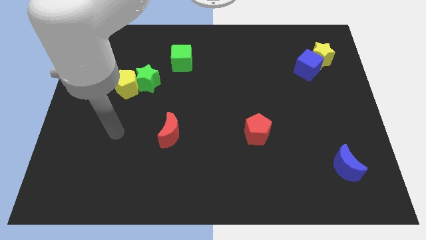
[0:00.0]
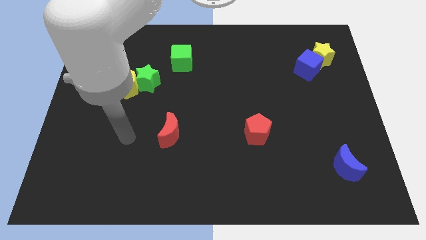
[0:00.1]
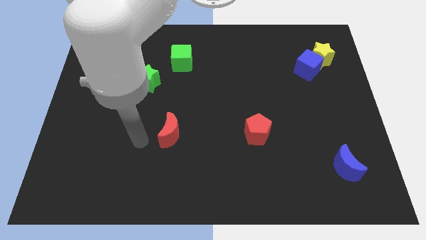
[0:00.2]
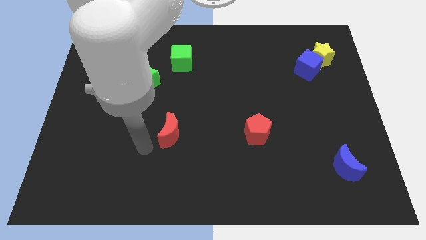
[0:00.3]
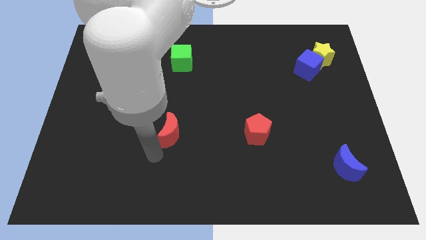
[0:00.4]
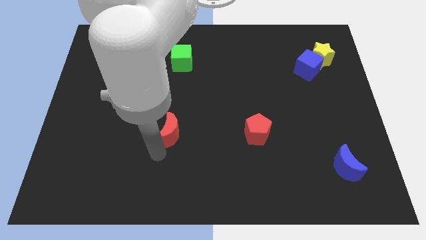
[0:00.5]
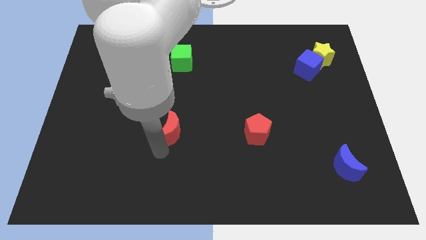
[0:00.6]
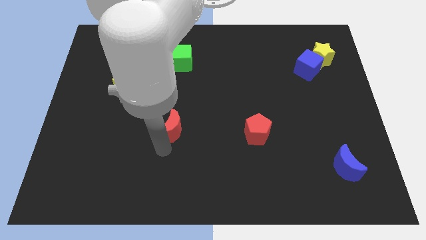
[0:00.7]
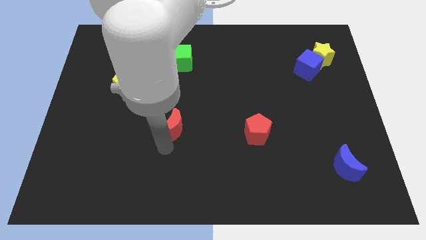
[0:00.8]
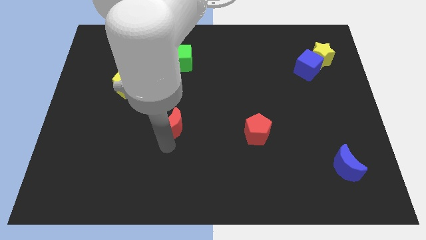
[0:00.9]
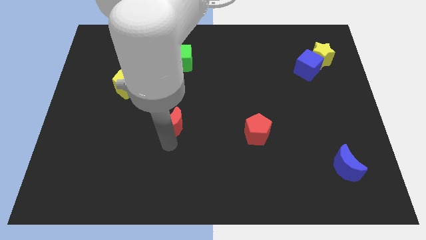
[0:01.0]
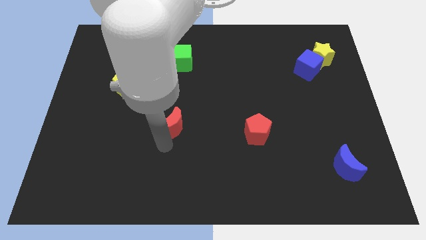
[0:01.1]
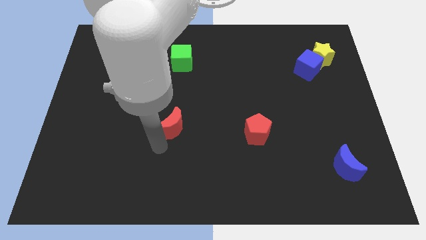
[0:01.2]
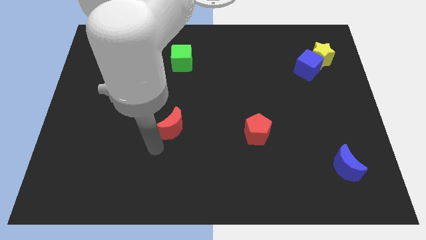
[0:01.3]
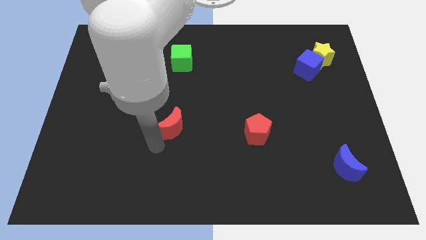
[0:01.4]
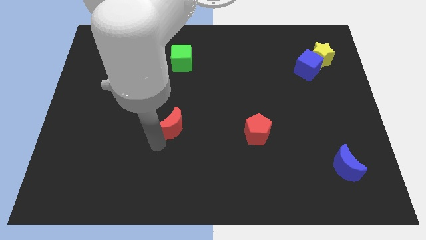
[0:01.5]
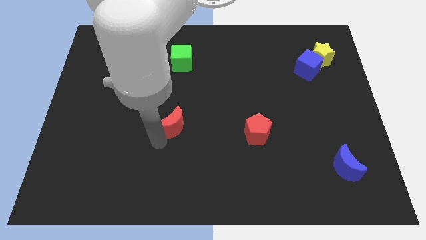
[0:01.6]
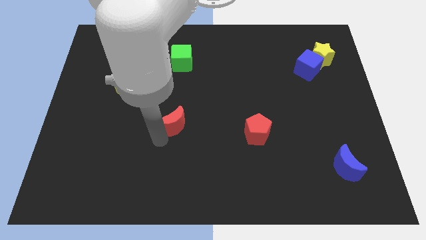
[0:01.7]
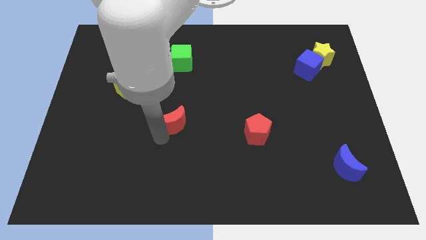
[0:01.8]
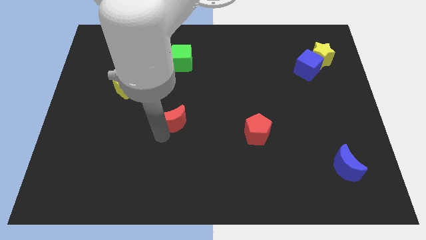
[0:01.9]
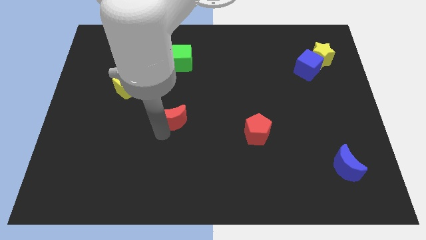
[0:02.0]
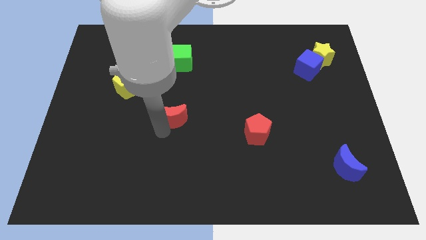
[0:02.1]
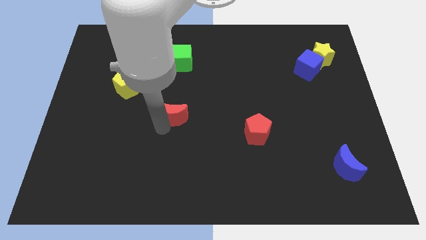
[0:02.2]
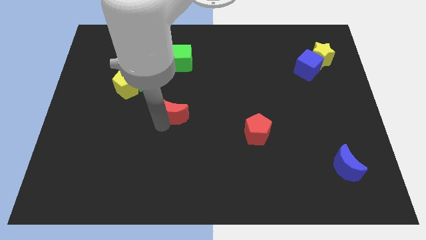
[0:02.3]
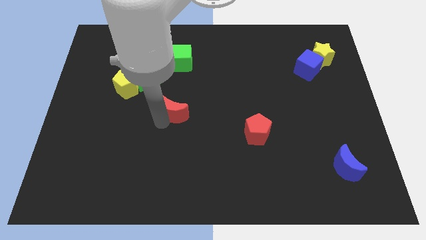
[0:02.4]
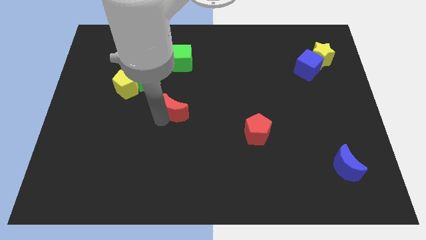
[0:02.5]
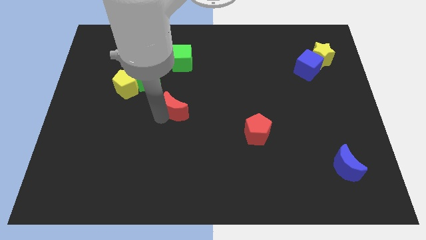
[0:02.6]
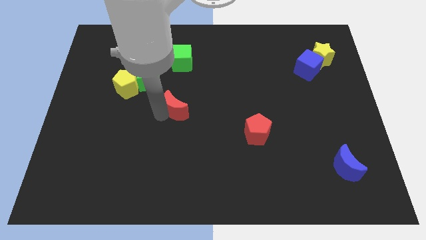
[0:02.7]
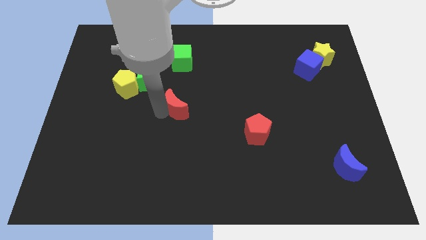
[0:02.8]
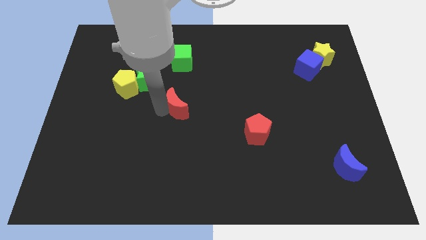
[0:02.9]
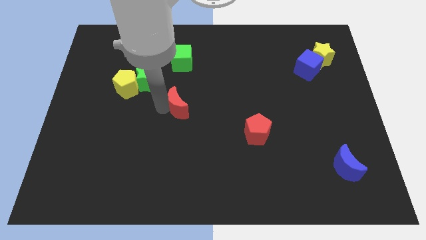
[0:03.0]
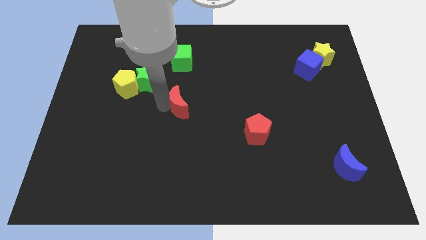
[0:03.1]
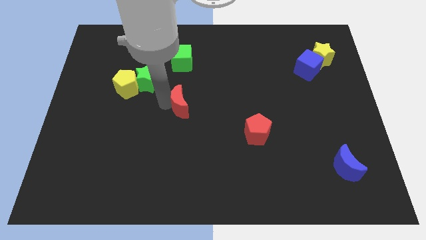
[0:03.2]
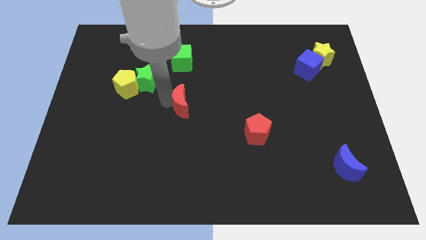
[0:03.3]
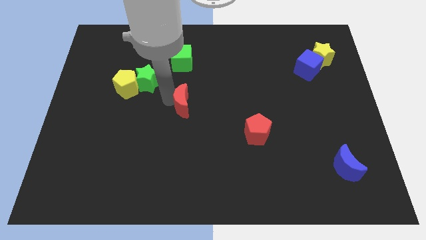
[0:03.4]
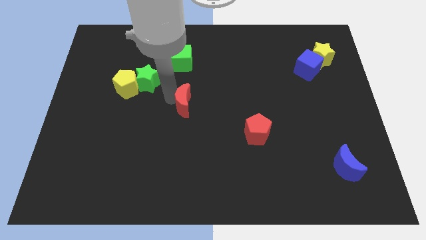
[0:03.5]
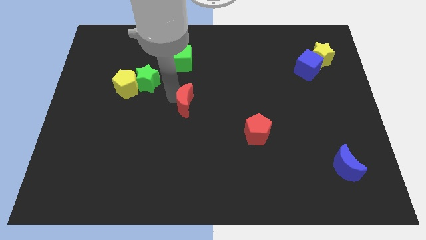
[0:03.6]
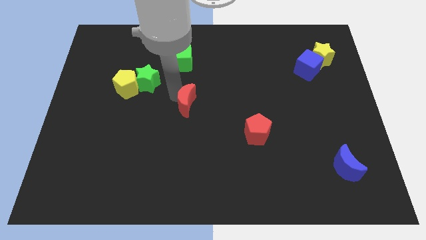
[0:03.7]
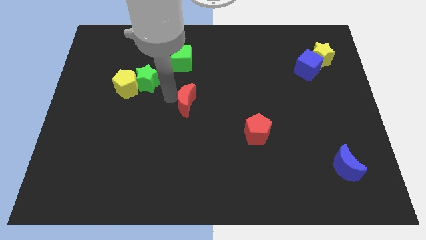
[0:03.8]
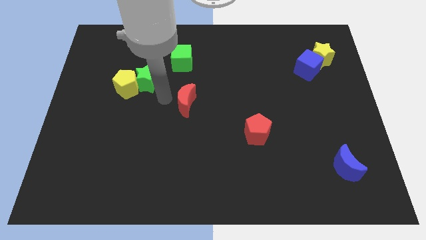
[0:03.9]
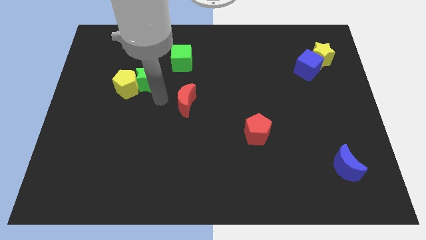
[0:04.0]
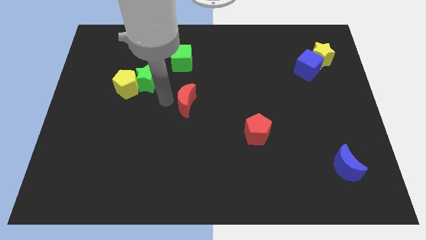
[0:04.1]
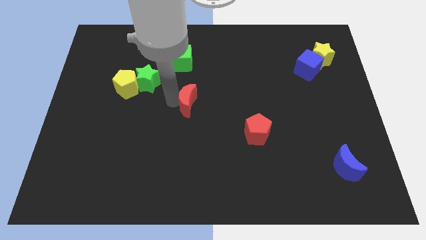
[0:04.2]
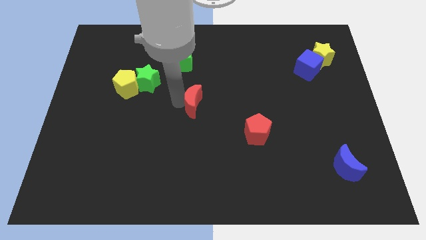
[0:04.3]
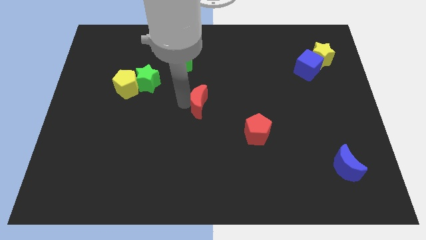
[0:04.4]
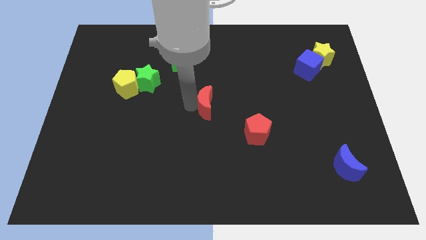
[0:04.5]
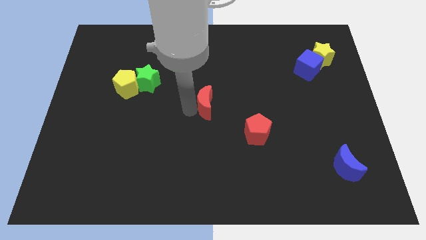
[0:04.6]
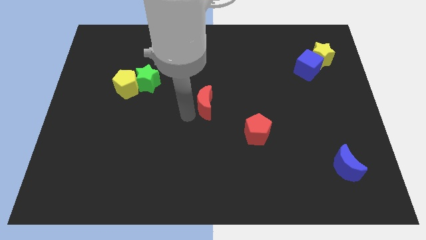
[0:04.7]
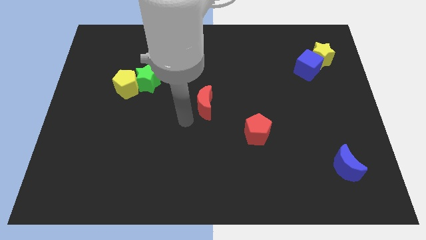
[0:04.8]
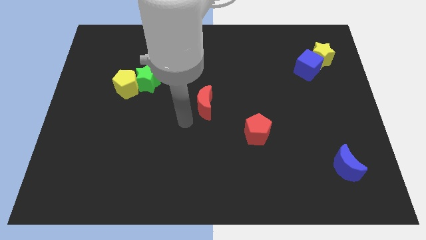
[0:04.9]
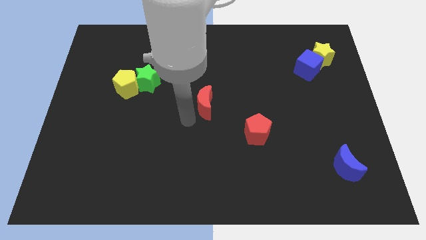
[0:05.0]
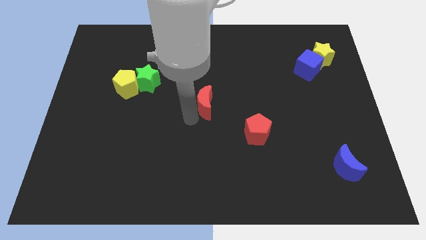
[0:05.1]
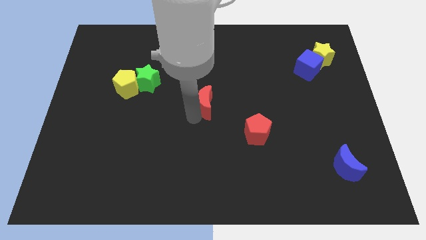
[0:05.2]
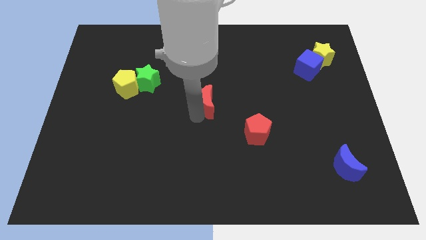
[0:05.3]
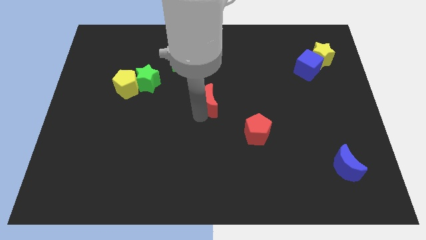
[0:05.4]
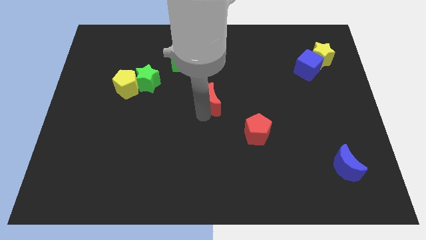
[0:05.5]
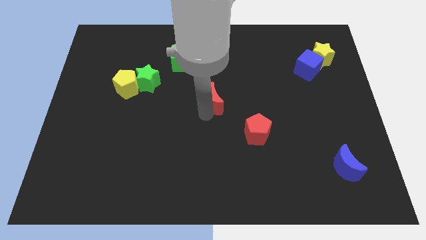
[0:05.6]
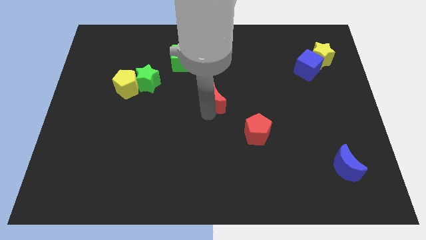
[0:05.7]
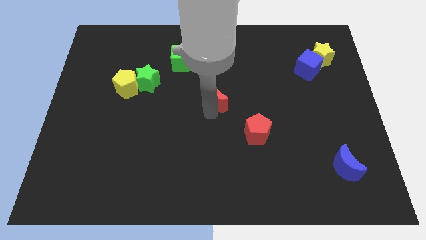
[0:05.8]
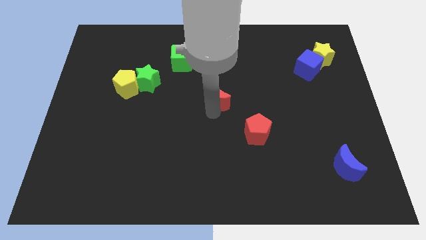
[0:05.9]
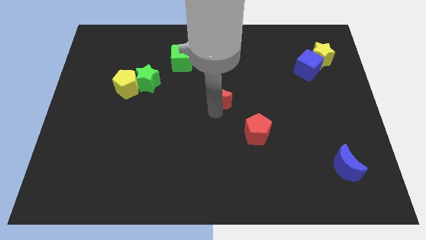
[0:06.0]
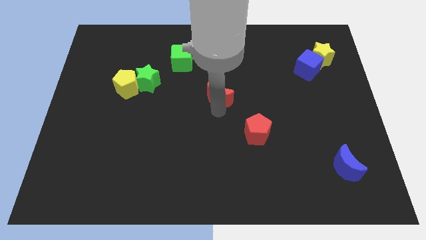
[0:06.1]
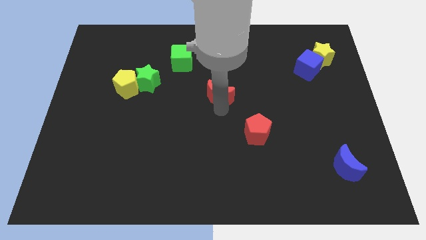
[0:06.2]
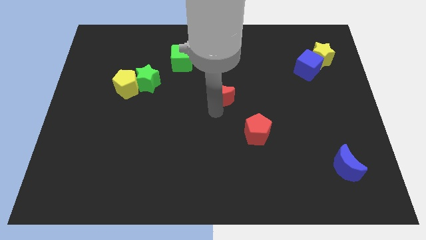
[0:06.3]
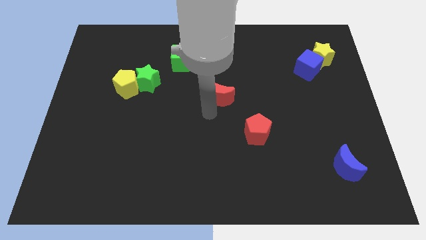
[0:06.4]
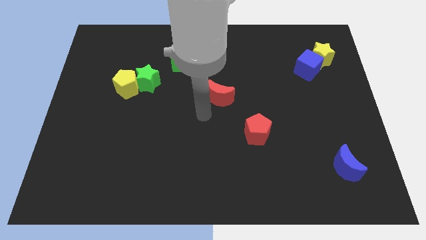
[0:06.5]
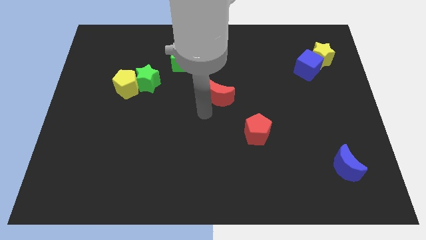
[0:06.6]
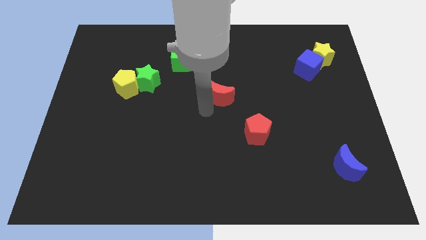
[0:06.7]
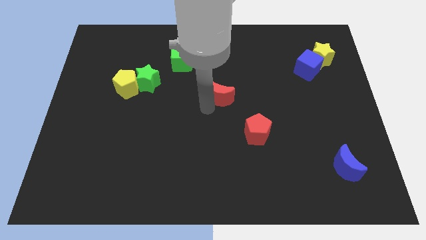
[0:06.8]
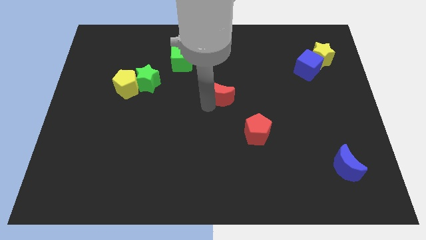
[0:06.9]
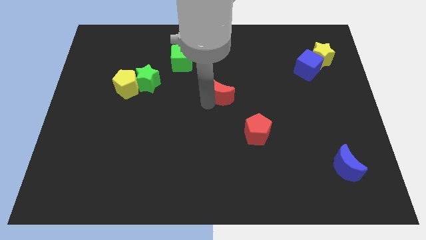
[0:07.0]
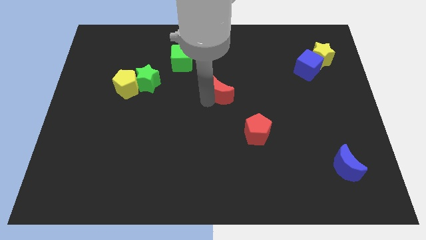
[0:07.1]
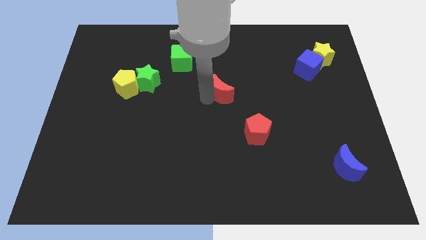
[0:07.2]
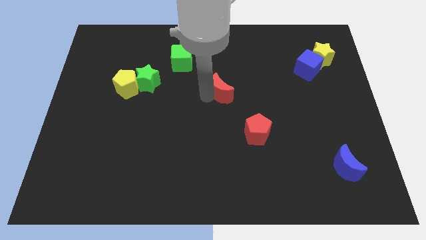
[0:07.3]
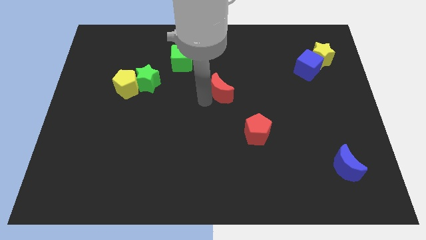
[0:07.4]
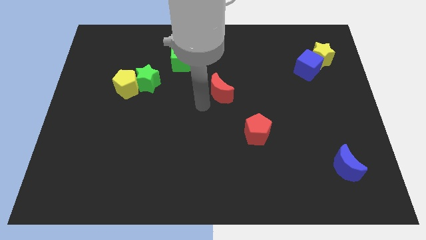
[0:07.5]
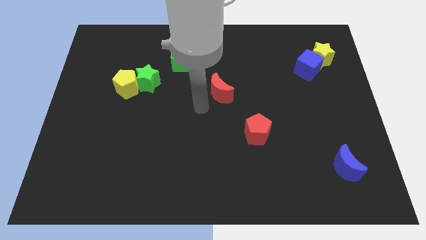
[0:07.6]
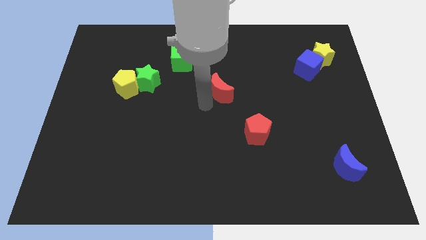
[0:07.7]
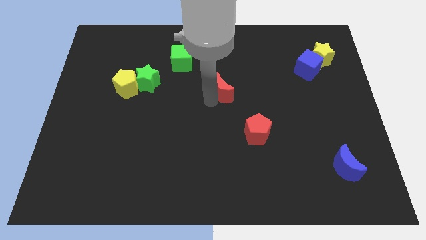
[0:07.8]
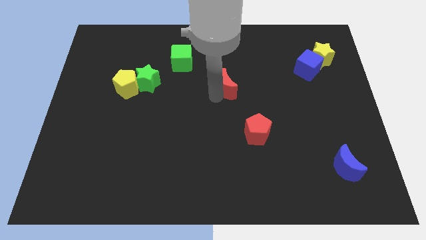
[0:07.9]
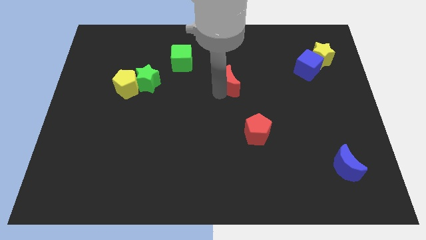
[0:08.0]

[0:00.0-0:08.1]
move the red moon up and to the right diagonally
